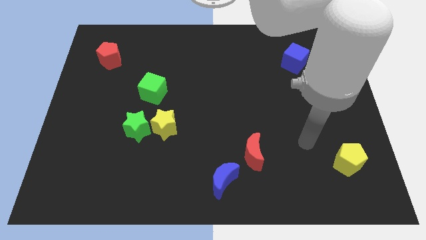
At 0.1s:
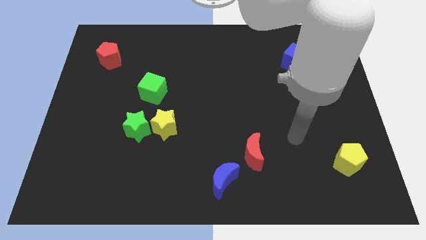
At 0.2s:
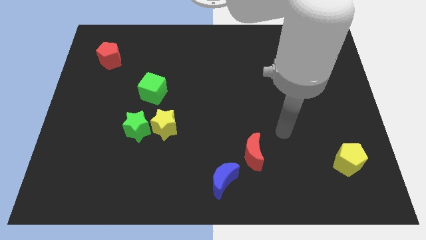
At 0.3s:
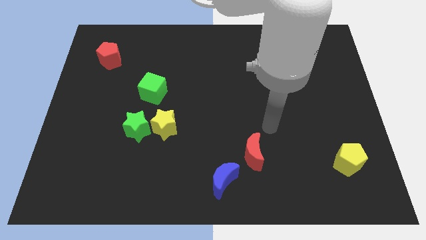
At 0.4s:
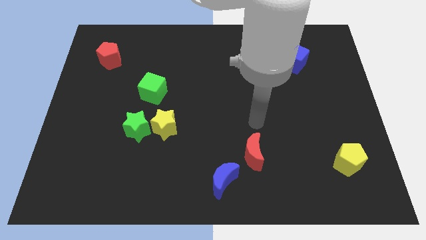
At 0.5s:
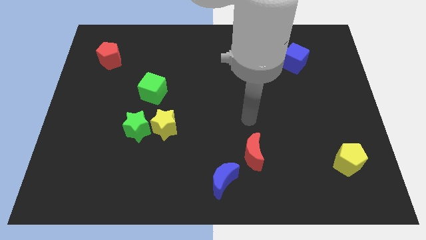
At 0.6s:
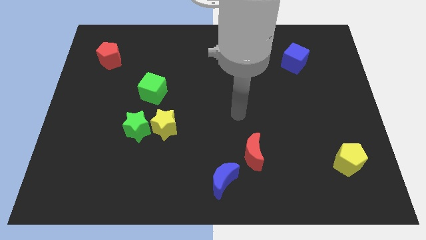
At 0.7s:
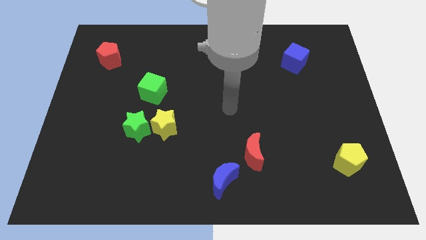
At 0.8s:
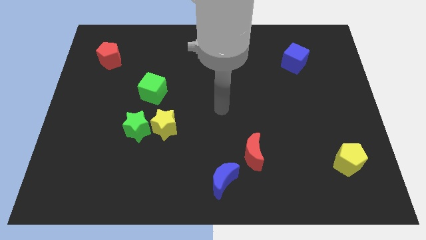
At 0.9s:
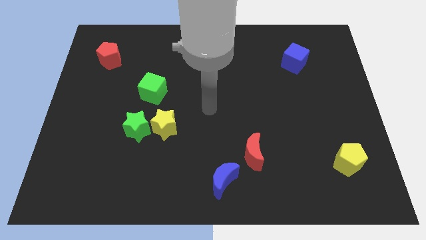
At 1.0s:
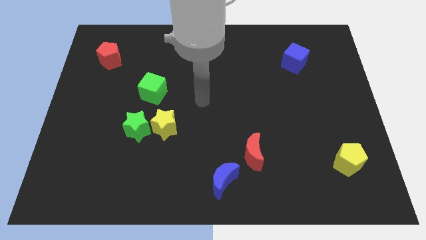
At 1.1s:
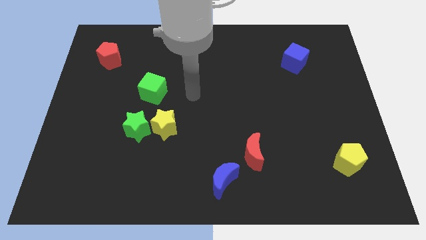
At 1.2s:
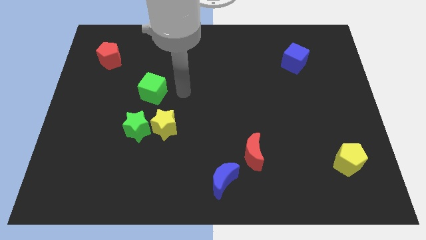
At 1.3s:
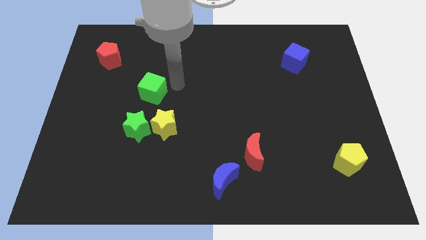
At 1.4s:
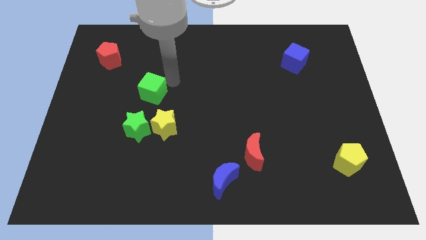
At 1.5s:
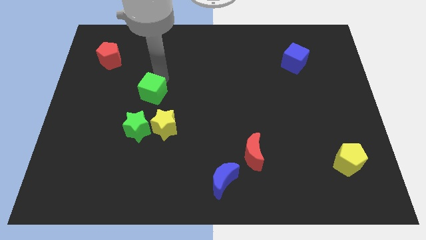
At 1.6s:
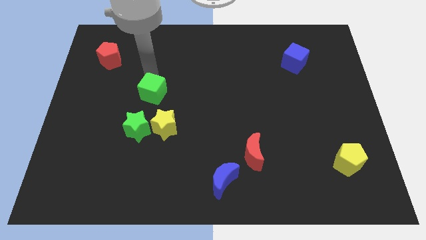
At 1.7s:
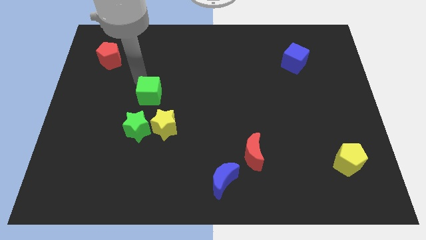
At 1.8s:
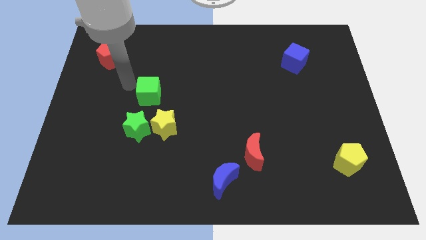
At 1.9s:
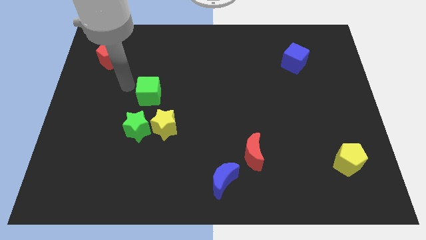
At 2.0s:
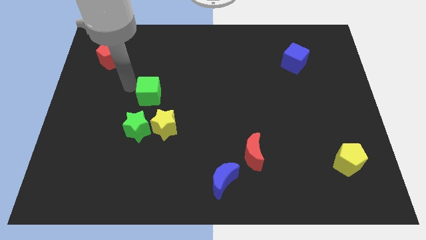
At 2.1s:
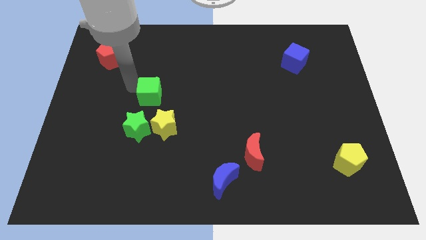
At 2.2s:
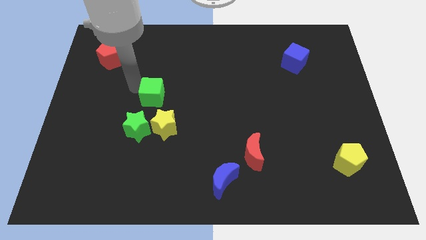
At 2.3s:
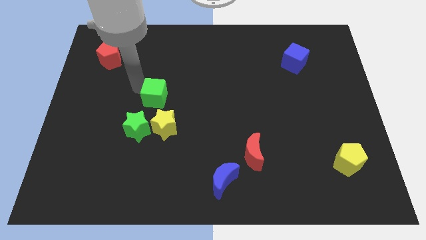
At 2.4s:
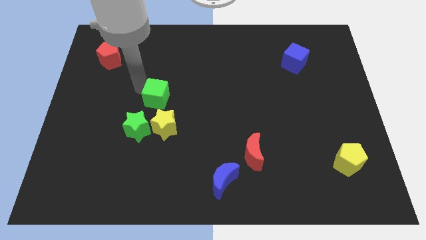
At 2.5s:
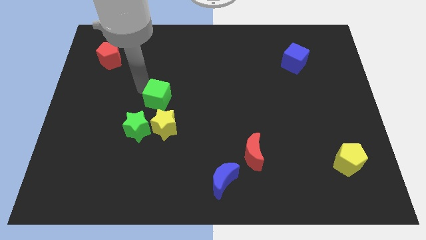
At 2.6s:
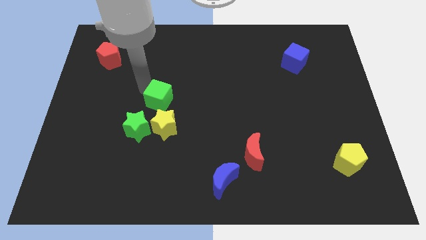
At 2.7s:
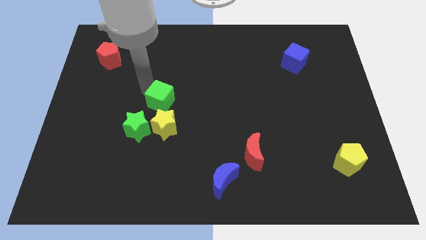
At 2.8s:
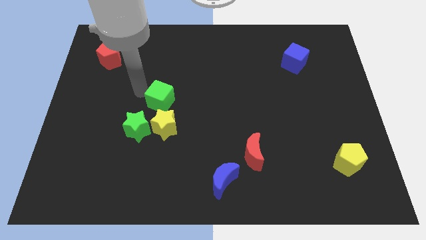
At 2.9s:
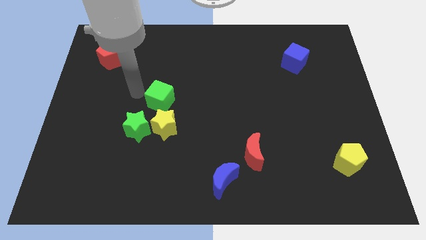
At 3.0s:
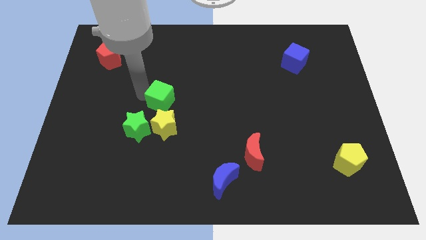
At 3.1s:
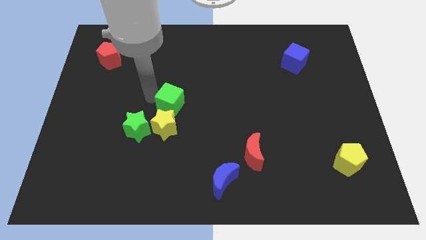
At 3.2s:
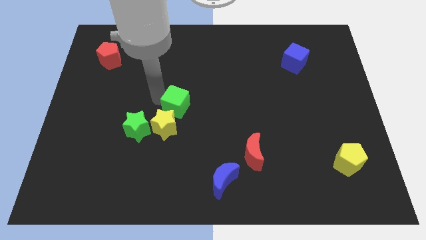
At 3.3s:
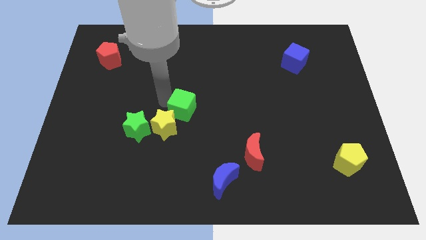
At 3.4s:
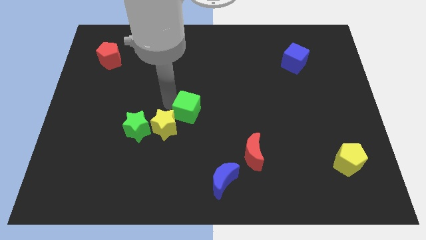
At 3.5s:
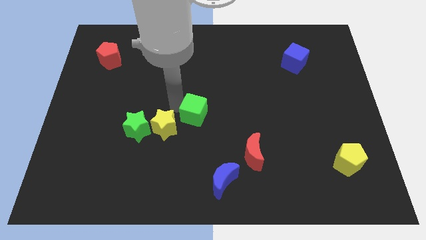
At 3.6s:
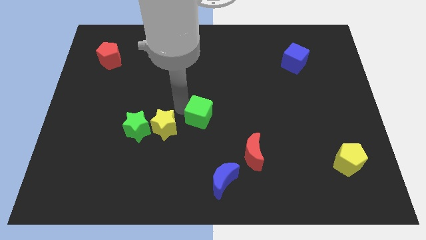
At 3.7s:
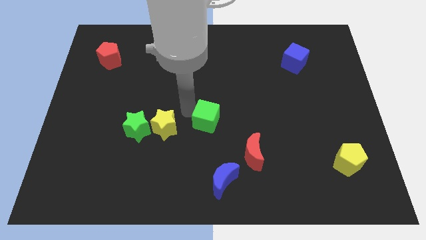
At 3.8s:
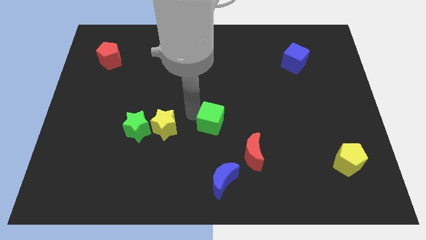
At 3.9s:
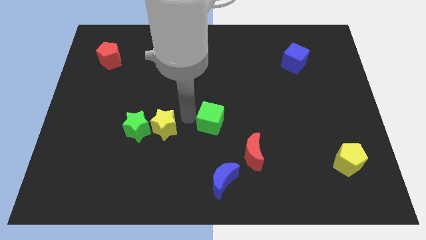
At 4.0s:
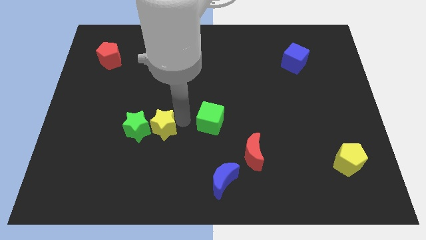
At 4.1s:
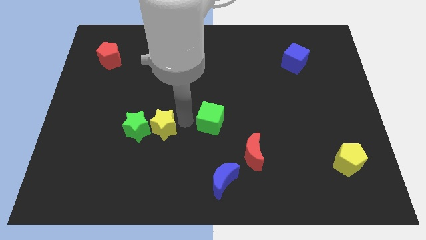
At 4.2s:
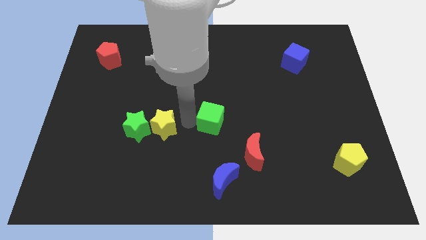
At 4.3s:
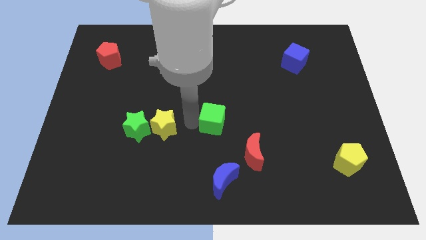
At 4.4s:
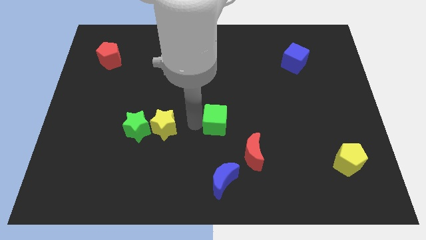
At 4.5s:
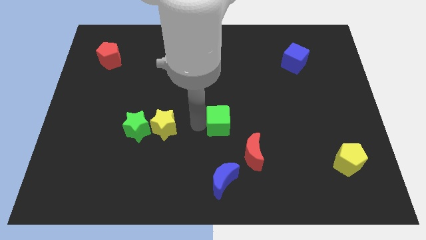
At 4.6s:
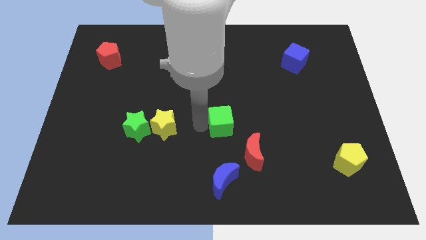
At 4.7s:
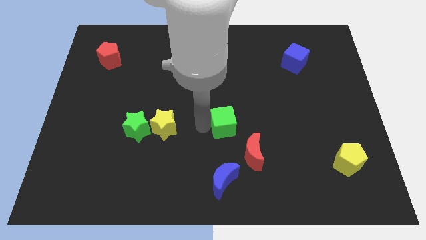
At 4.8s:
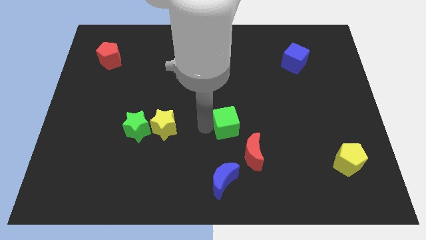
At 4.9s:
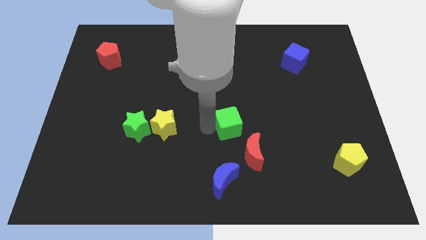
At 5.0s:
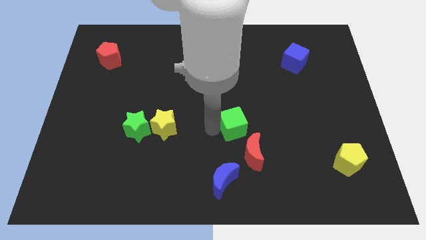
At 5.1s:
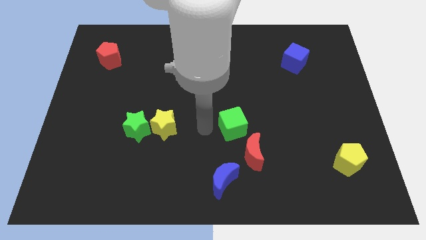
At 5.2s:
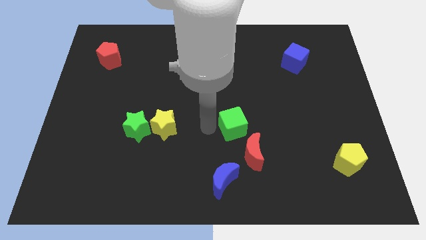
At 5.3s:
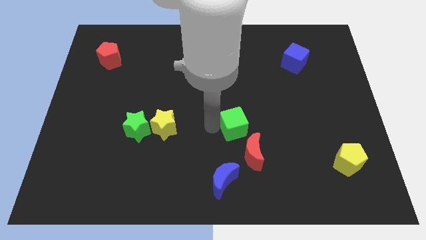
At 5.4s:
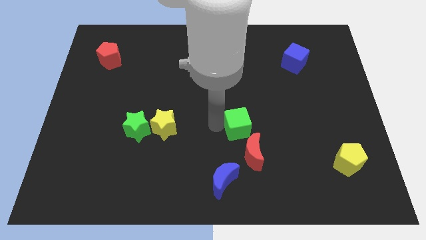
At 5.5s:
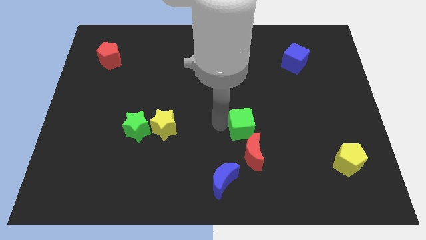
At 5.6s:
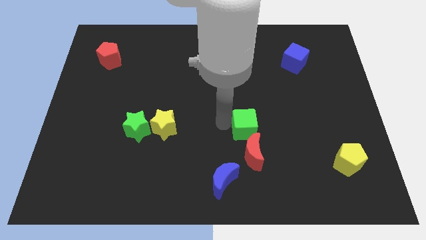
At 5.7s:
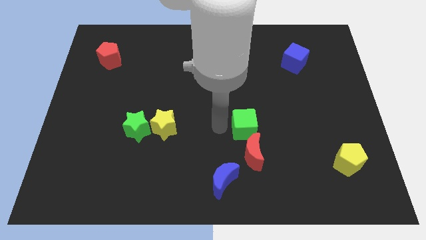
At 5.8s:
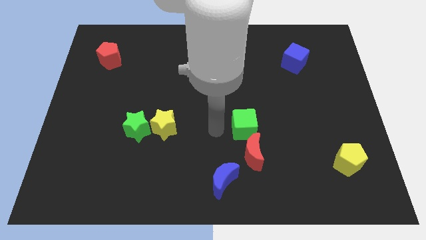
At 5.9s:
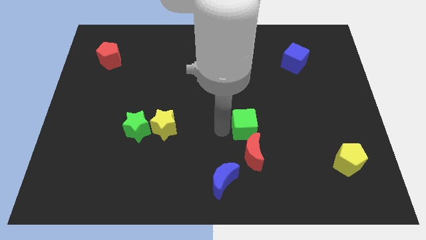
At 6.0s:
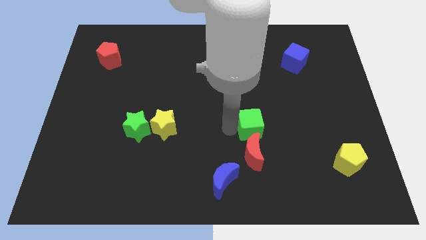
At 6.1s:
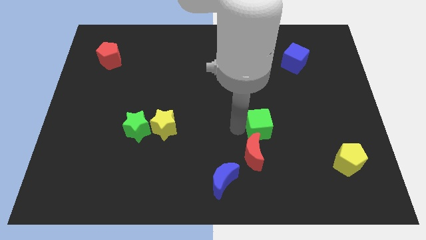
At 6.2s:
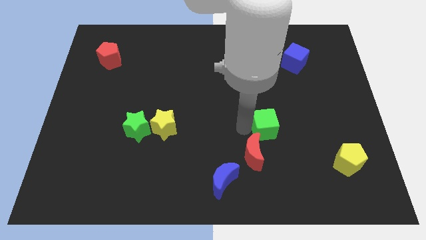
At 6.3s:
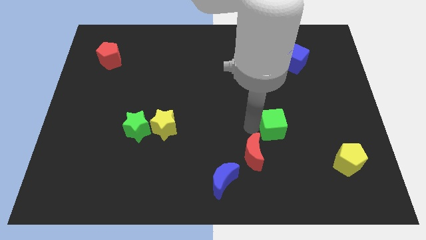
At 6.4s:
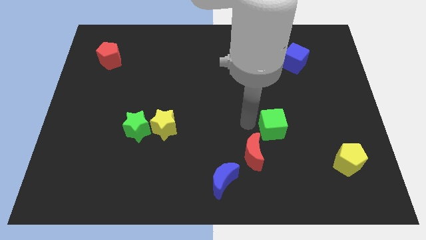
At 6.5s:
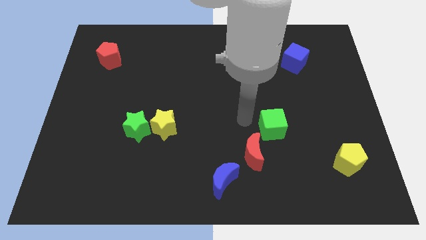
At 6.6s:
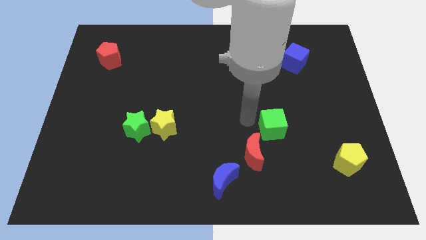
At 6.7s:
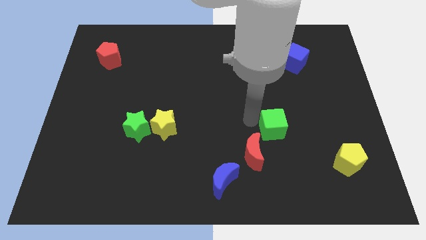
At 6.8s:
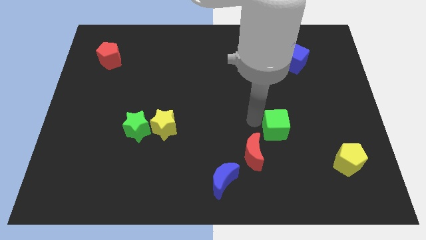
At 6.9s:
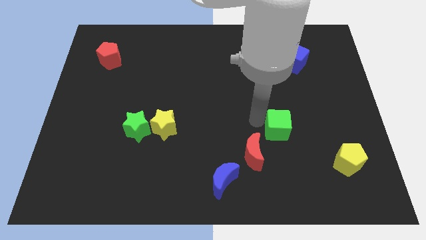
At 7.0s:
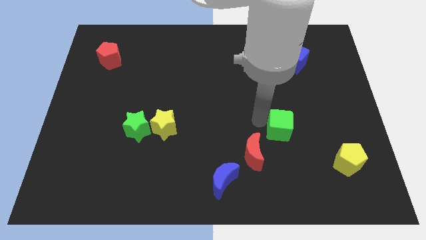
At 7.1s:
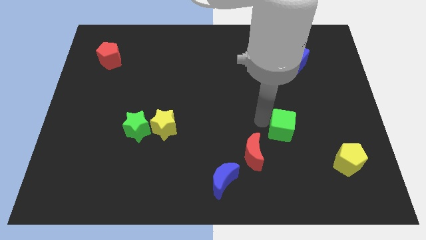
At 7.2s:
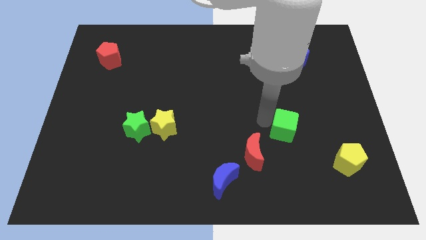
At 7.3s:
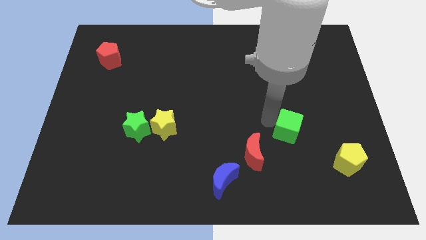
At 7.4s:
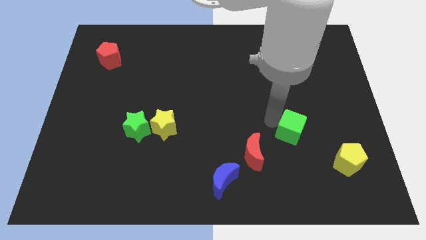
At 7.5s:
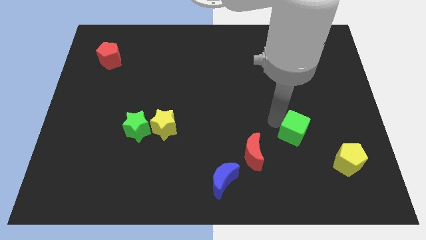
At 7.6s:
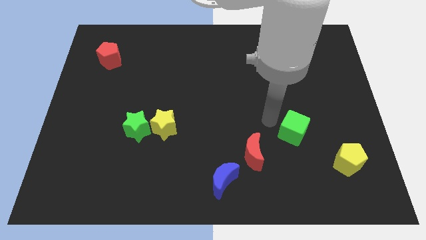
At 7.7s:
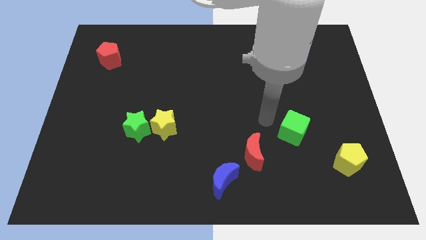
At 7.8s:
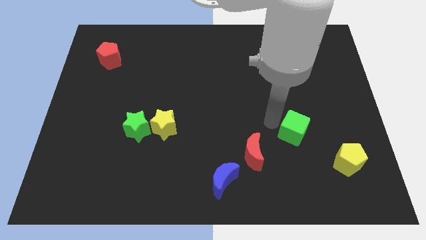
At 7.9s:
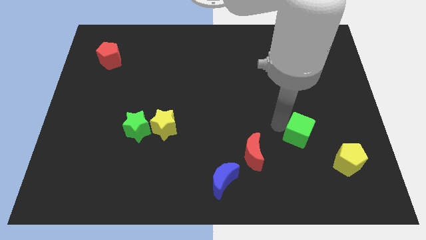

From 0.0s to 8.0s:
push the green cube diagonally up and to the left of the yellow pentagon
